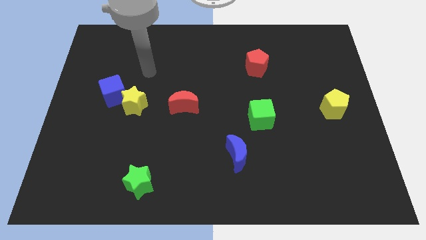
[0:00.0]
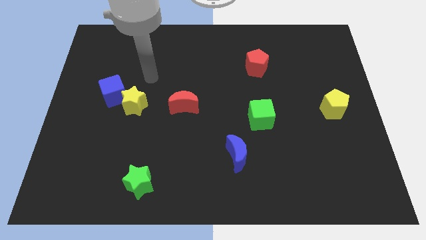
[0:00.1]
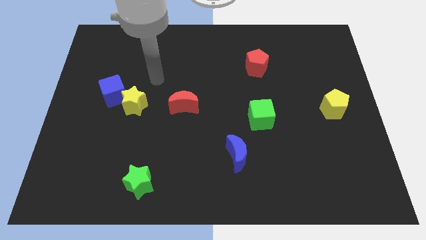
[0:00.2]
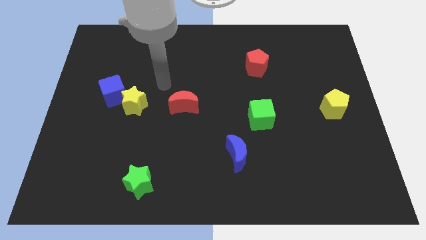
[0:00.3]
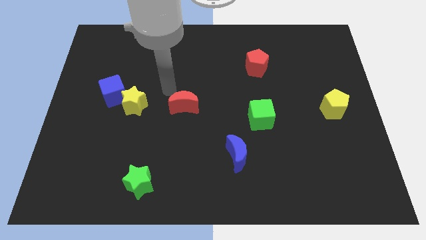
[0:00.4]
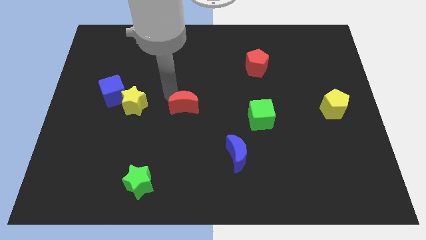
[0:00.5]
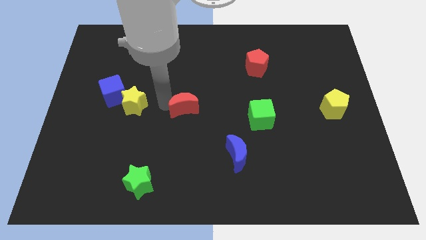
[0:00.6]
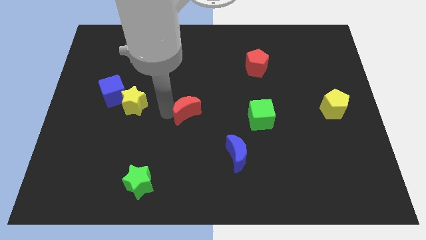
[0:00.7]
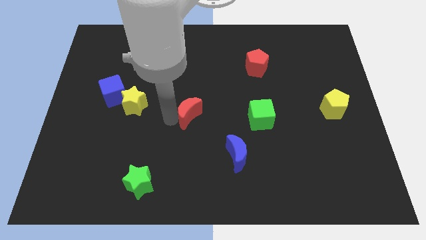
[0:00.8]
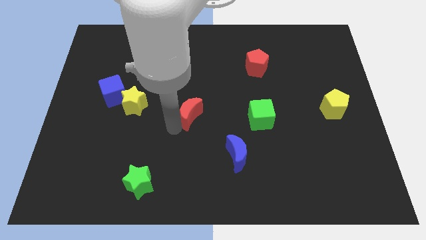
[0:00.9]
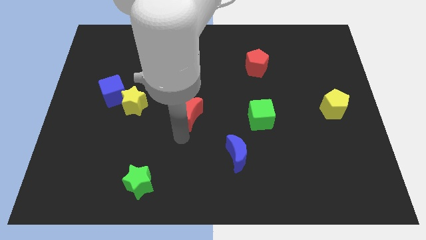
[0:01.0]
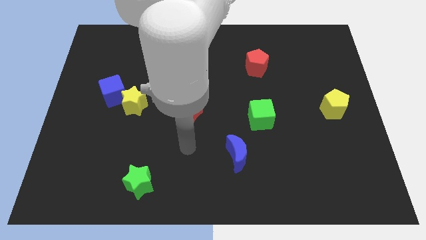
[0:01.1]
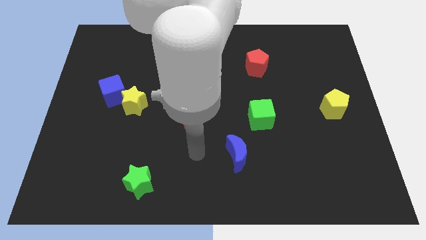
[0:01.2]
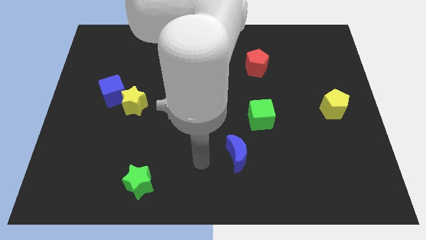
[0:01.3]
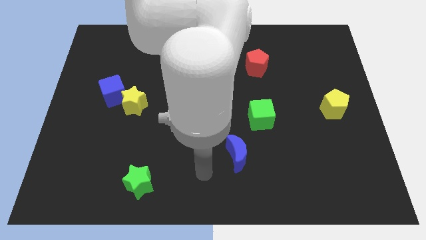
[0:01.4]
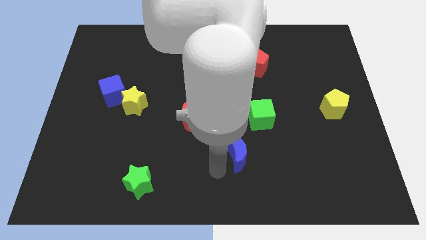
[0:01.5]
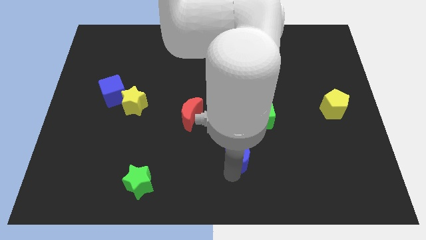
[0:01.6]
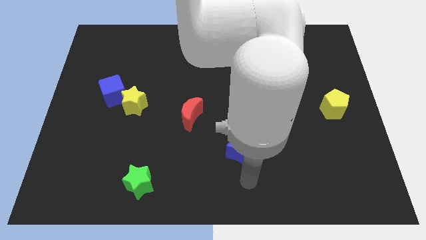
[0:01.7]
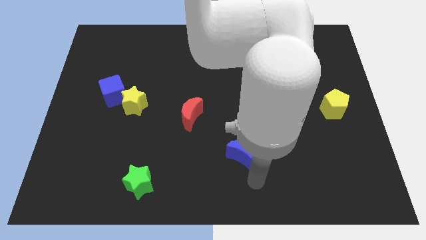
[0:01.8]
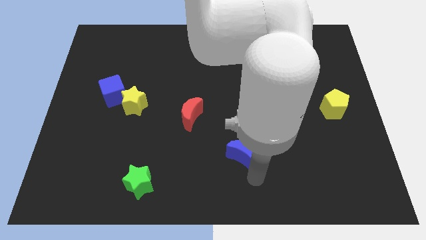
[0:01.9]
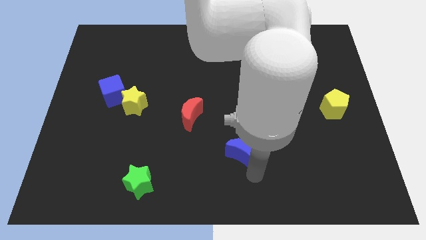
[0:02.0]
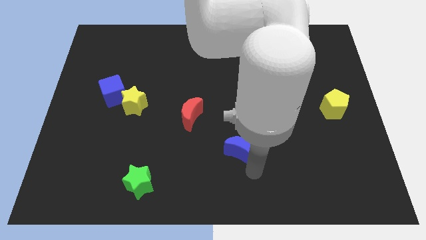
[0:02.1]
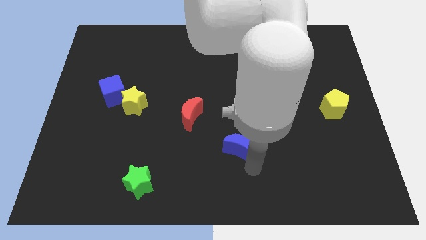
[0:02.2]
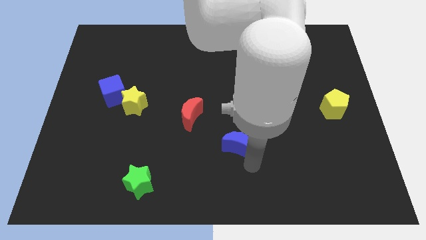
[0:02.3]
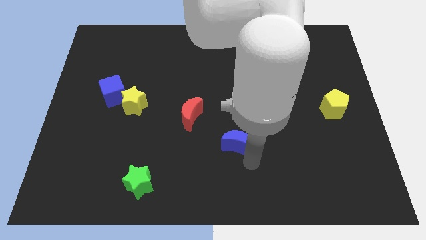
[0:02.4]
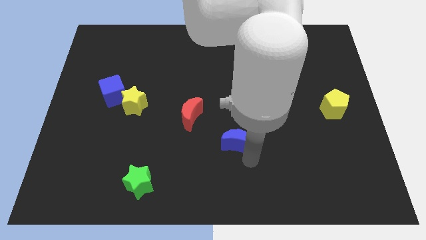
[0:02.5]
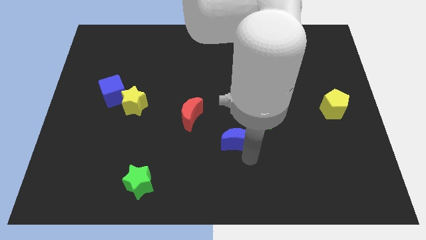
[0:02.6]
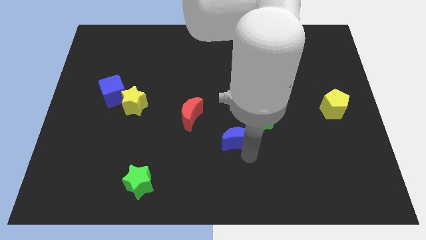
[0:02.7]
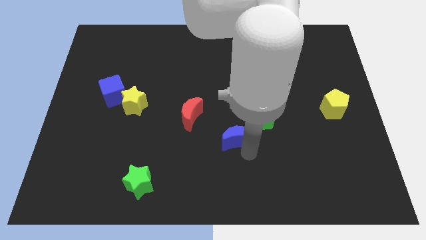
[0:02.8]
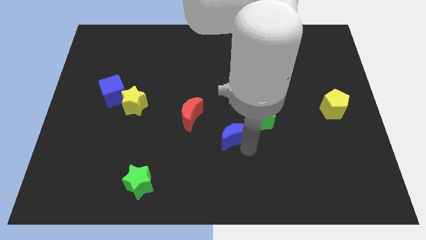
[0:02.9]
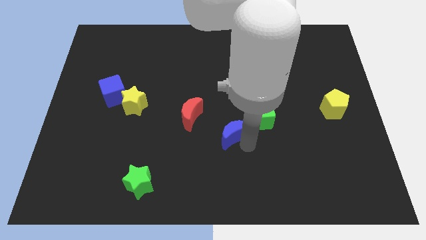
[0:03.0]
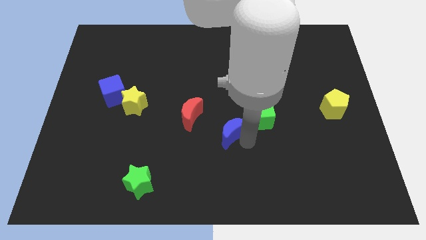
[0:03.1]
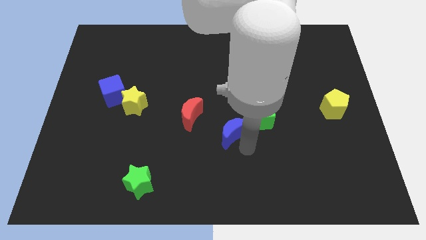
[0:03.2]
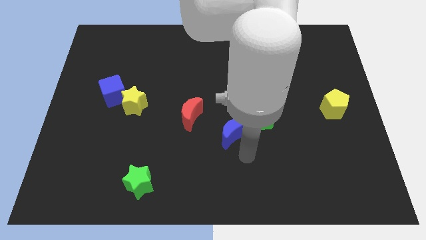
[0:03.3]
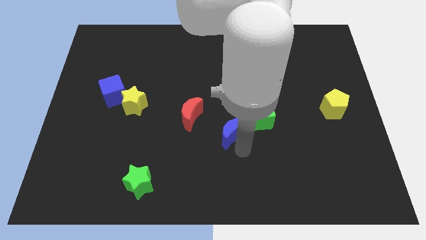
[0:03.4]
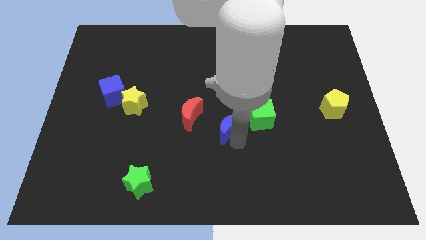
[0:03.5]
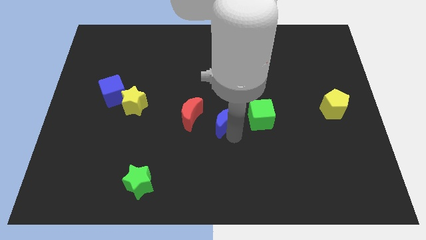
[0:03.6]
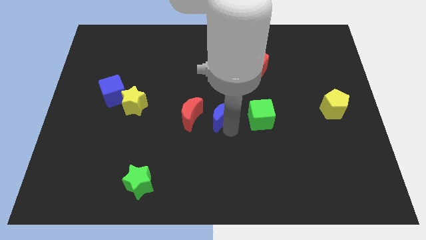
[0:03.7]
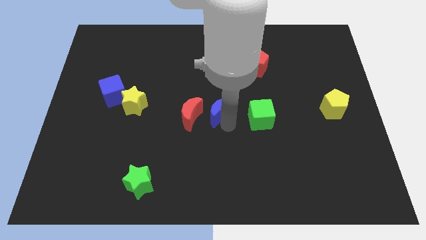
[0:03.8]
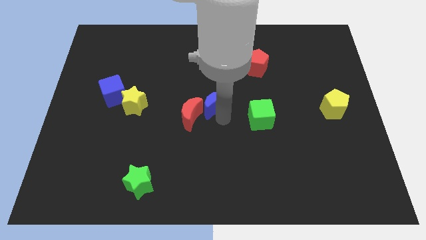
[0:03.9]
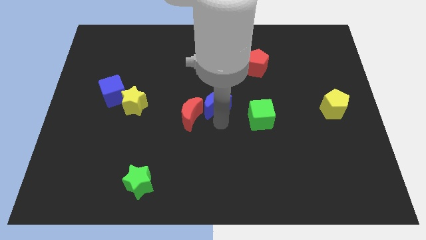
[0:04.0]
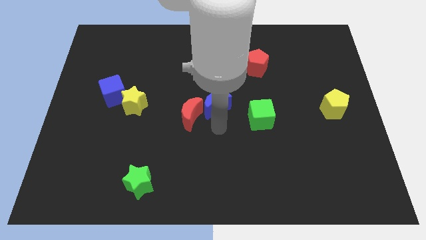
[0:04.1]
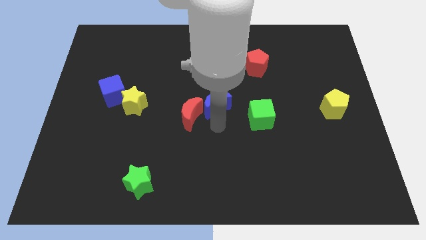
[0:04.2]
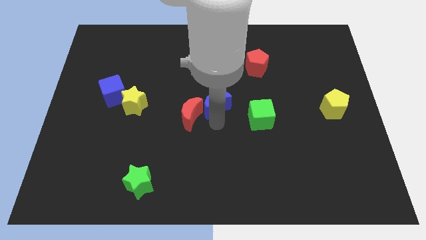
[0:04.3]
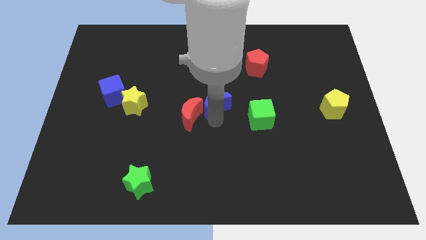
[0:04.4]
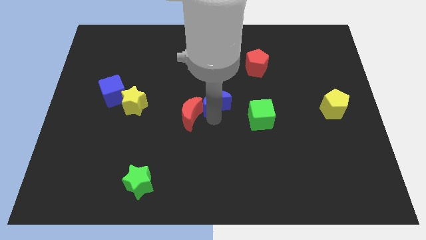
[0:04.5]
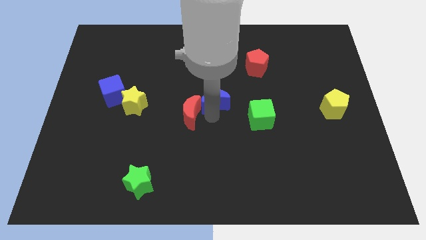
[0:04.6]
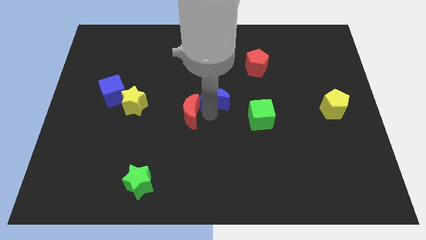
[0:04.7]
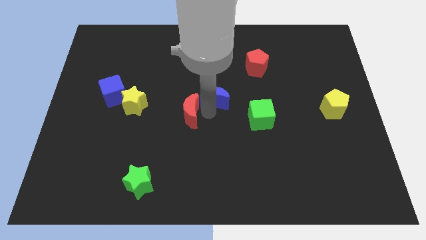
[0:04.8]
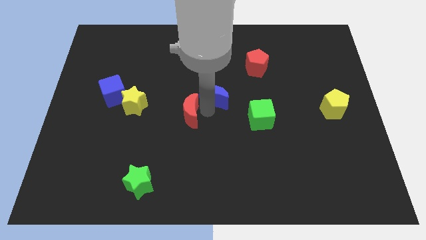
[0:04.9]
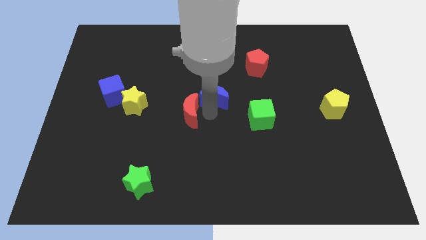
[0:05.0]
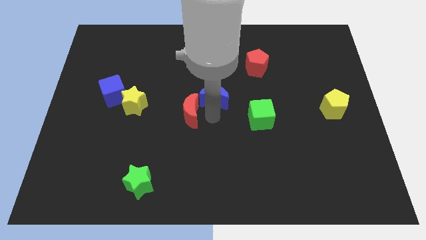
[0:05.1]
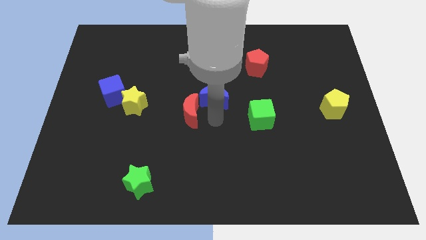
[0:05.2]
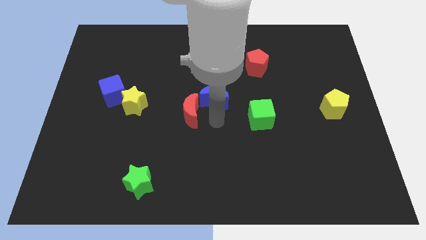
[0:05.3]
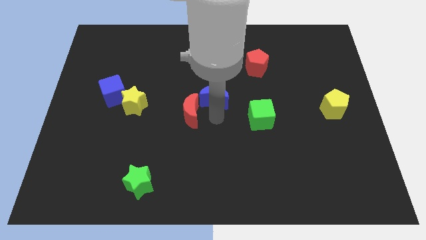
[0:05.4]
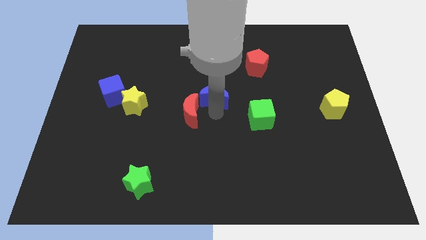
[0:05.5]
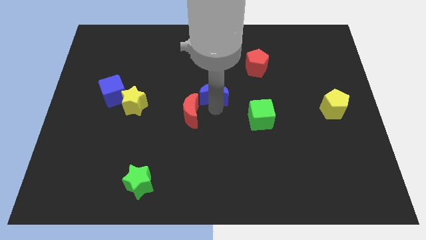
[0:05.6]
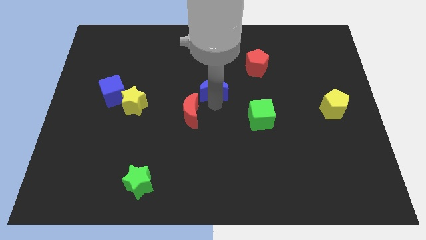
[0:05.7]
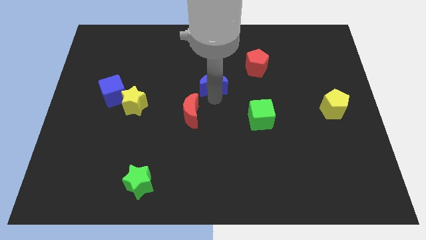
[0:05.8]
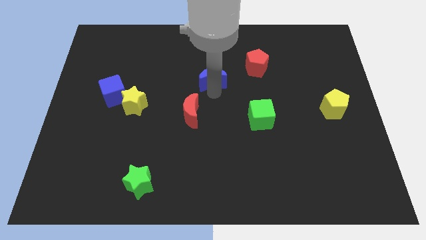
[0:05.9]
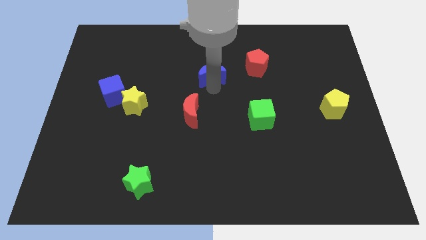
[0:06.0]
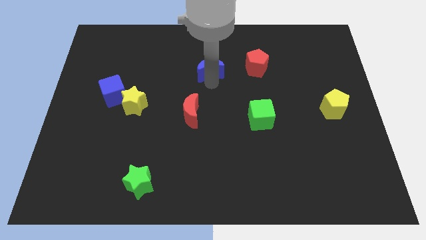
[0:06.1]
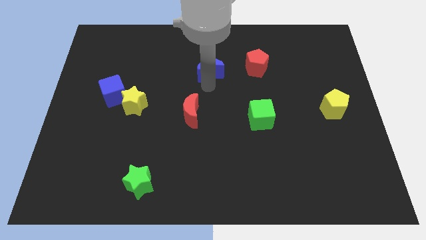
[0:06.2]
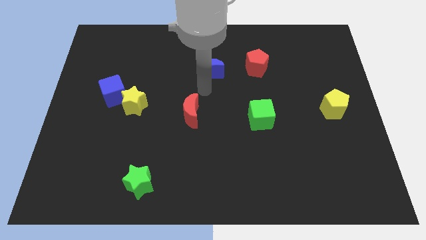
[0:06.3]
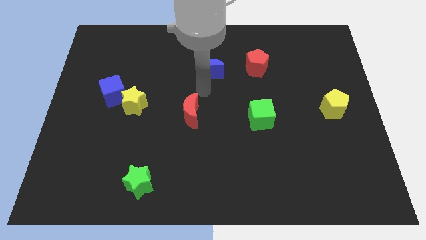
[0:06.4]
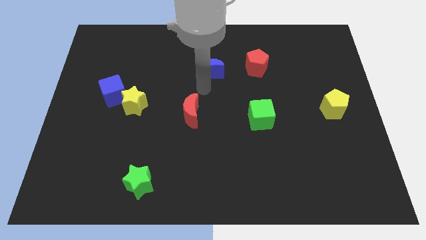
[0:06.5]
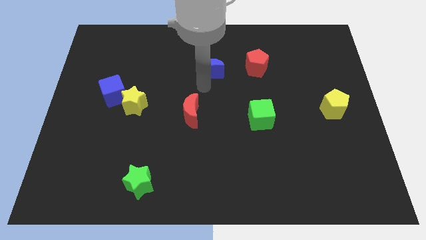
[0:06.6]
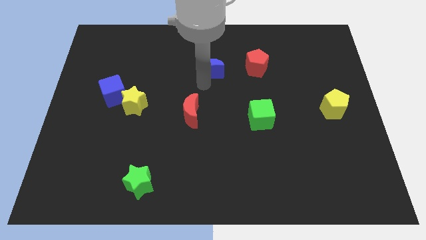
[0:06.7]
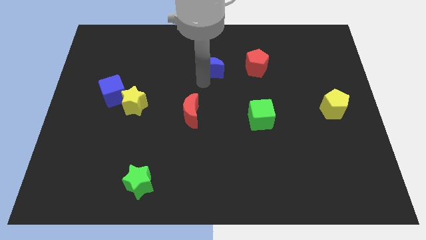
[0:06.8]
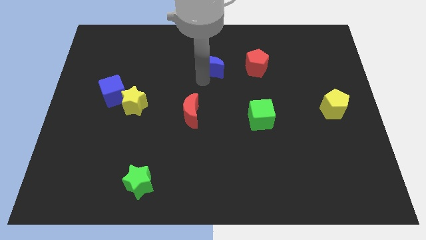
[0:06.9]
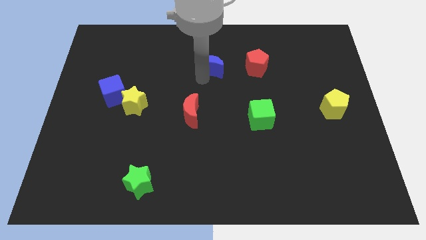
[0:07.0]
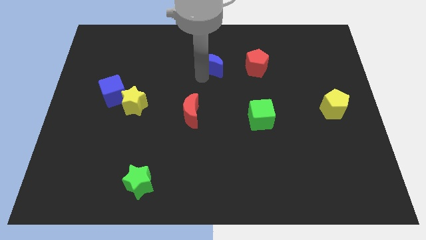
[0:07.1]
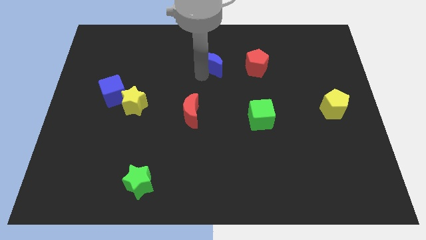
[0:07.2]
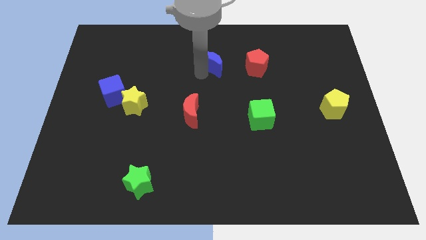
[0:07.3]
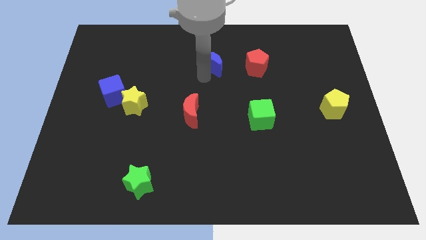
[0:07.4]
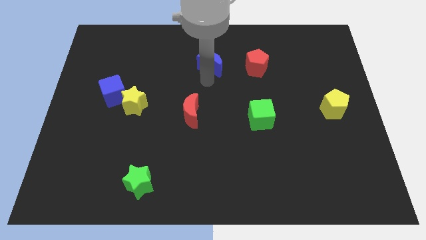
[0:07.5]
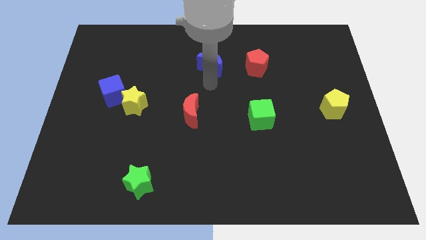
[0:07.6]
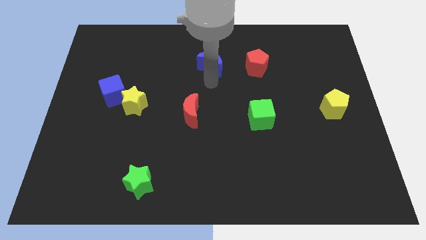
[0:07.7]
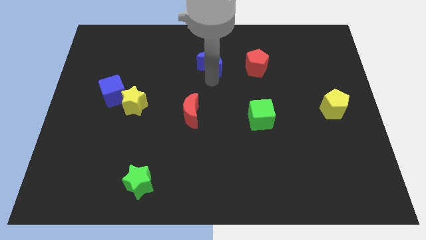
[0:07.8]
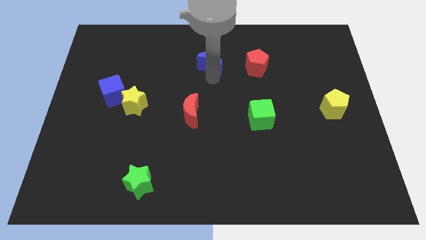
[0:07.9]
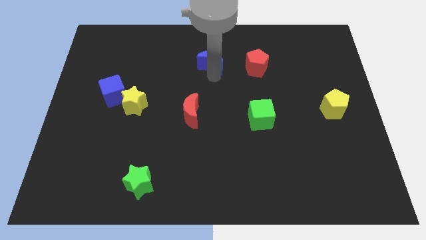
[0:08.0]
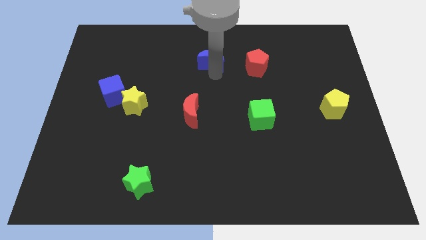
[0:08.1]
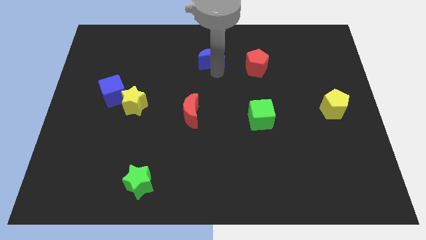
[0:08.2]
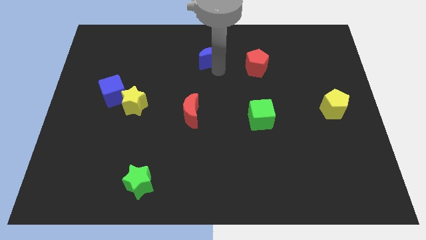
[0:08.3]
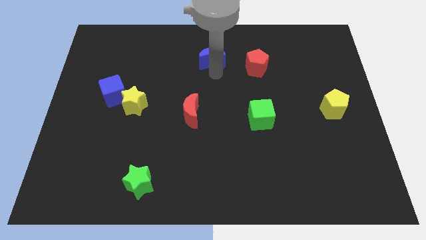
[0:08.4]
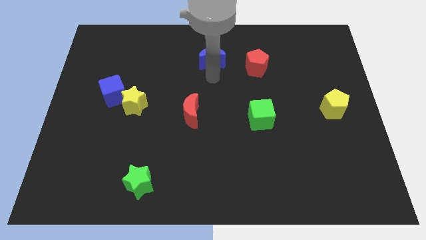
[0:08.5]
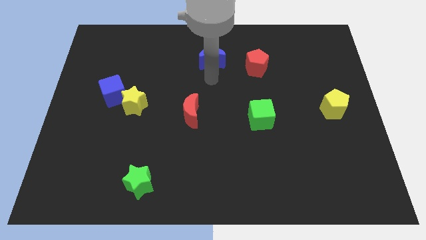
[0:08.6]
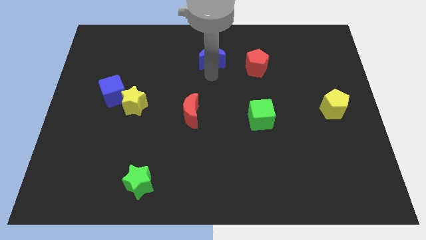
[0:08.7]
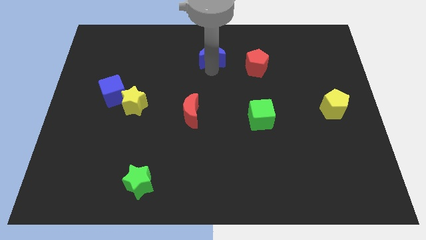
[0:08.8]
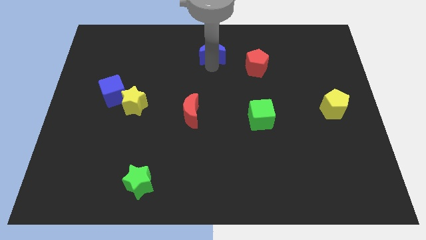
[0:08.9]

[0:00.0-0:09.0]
move the blue moon to the top
